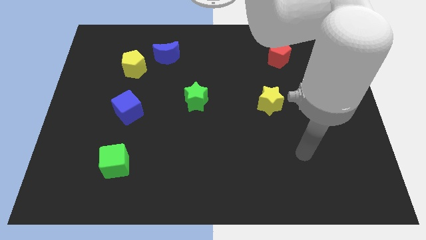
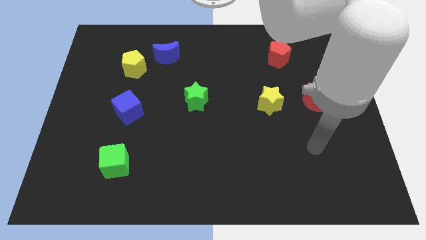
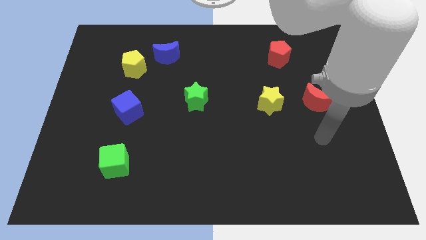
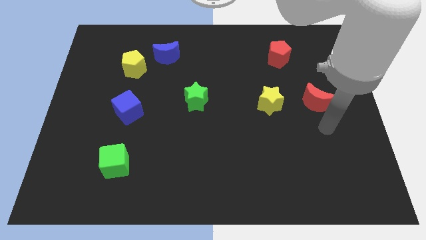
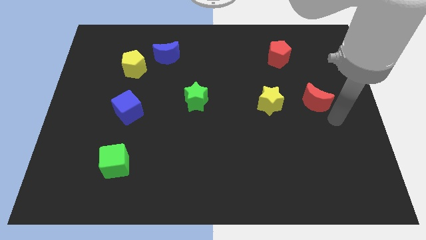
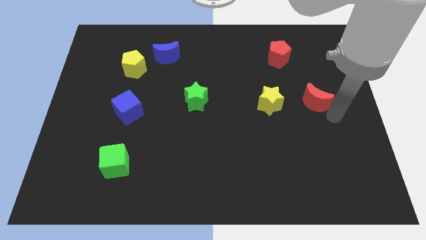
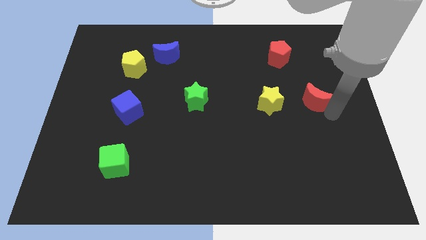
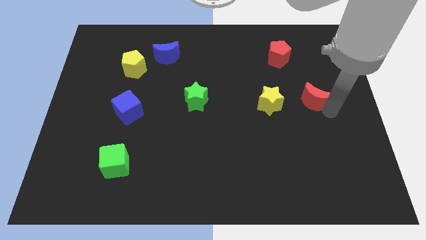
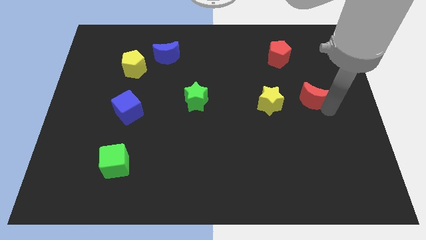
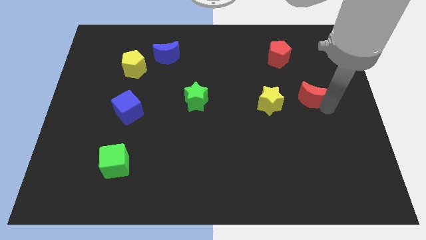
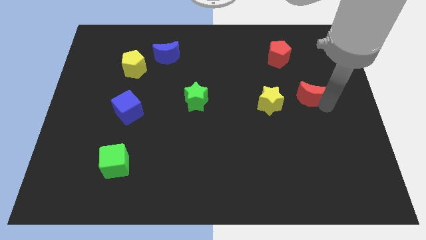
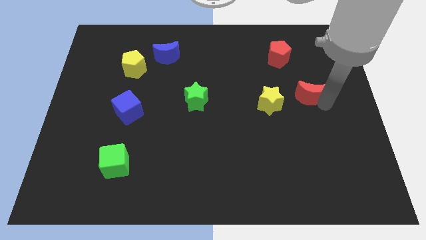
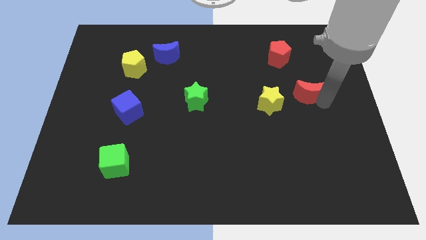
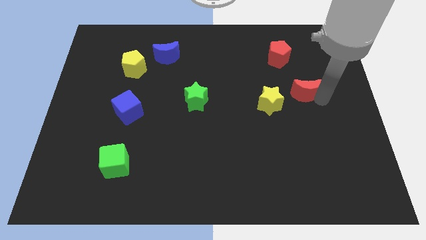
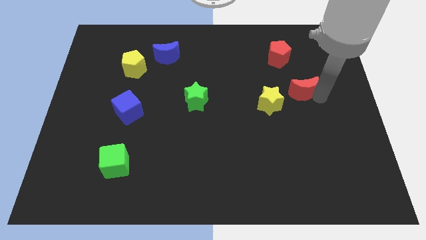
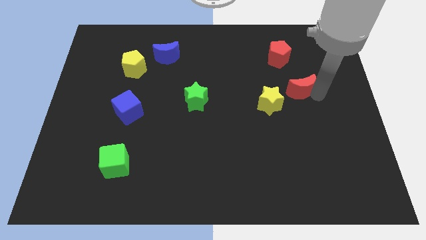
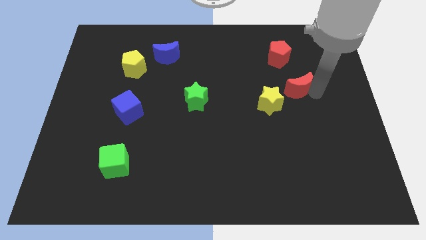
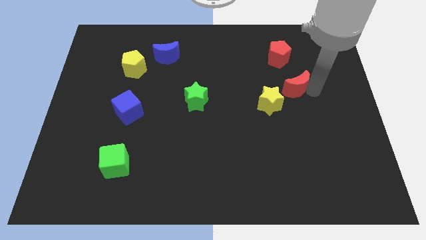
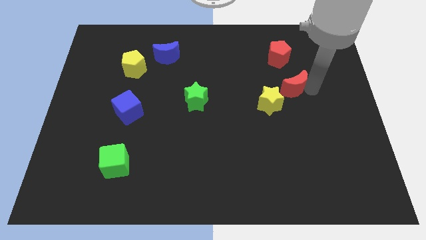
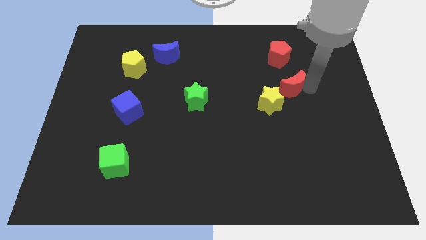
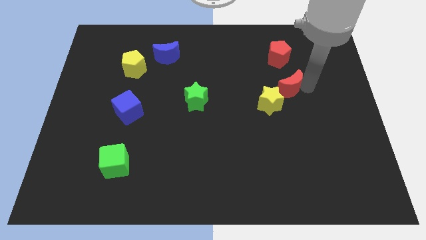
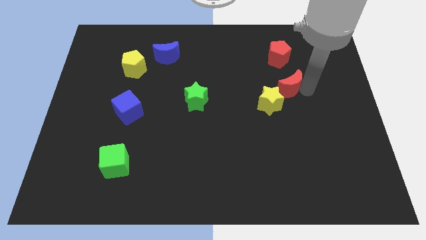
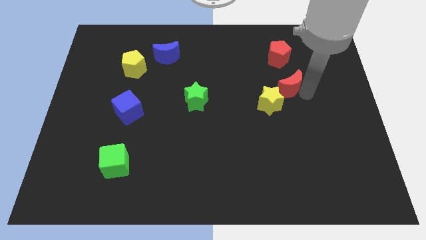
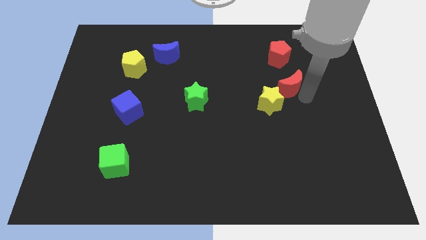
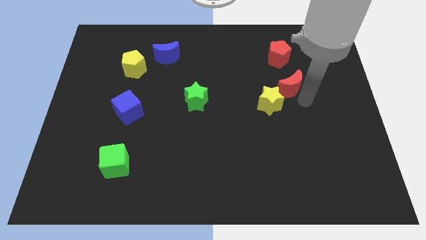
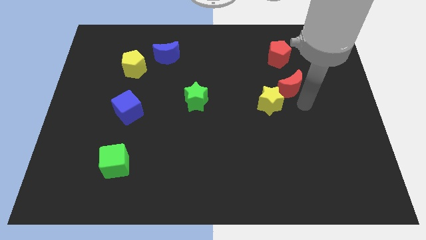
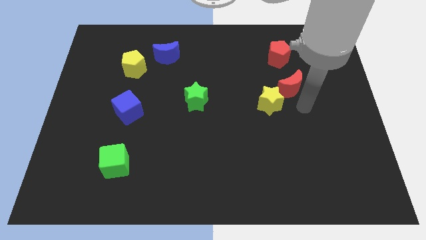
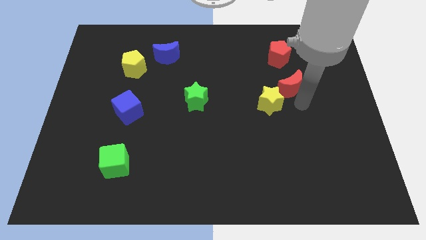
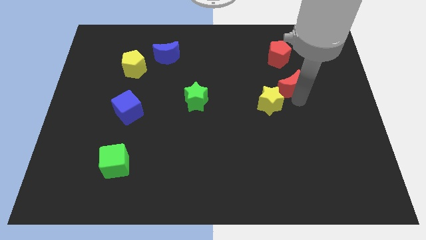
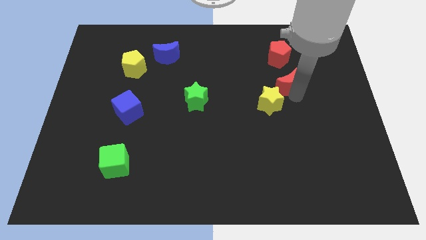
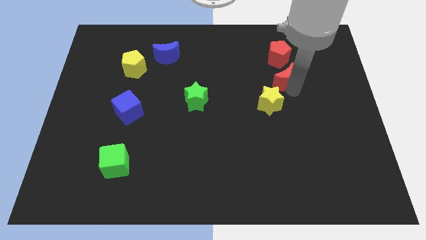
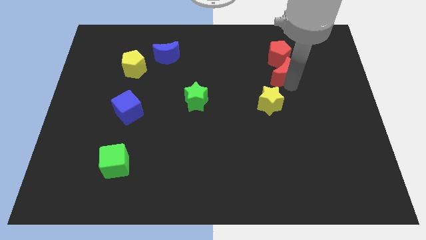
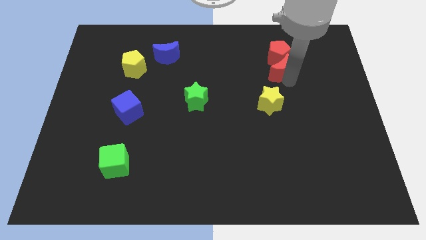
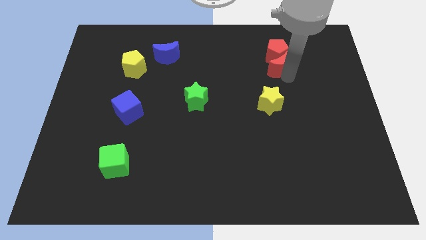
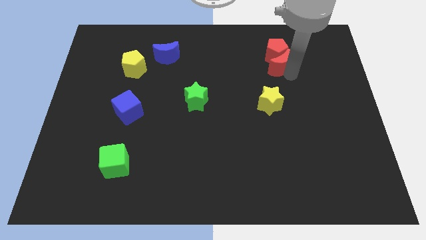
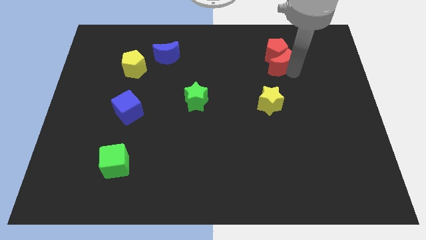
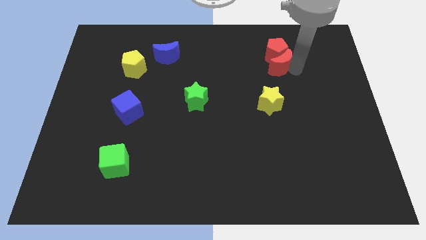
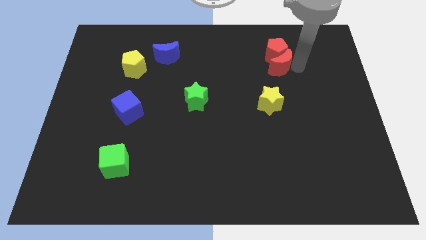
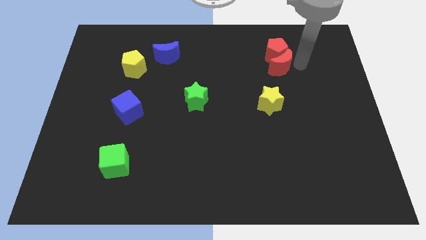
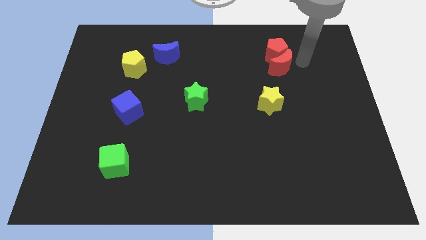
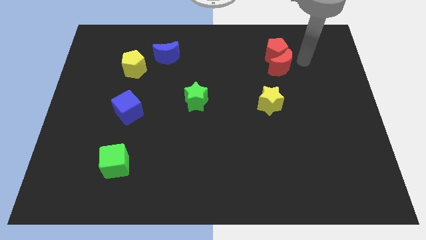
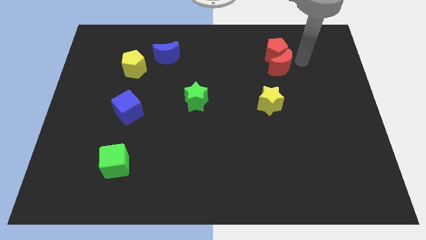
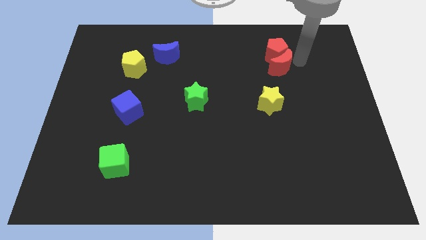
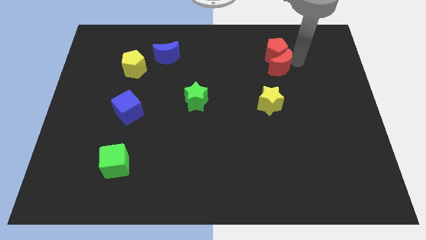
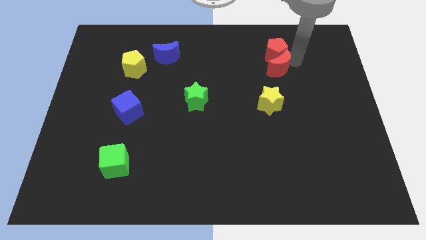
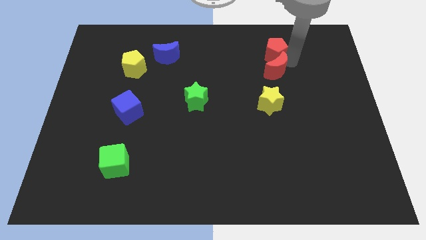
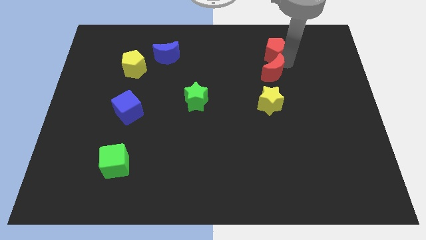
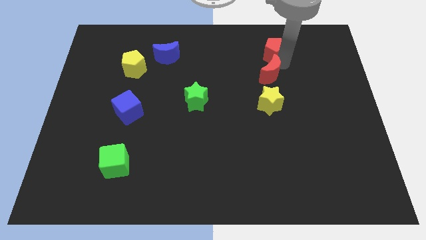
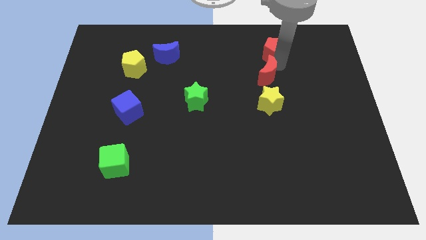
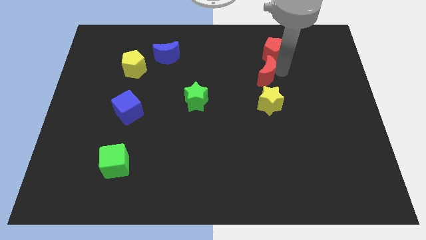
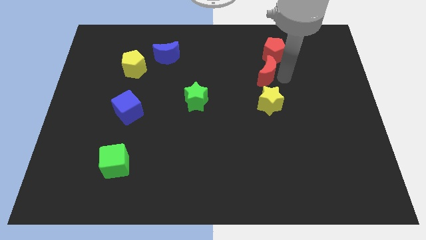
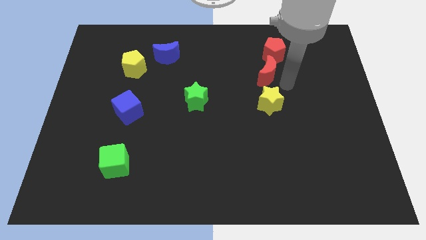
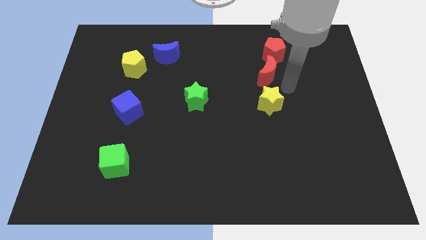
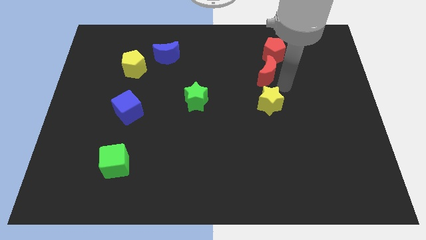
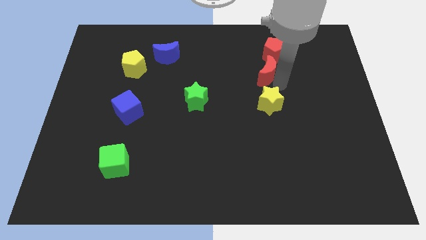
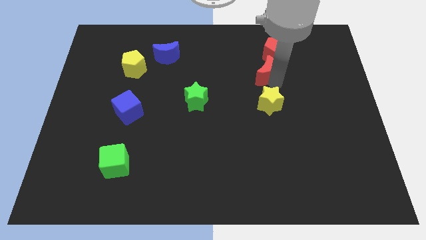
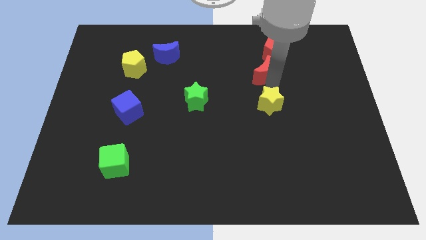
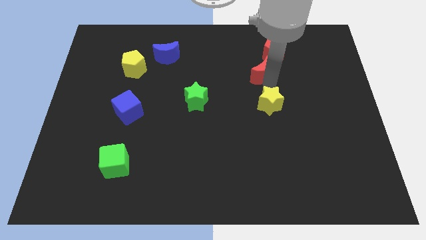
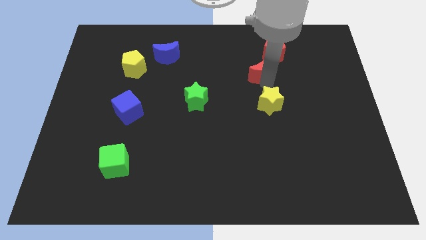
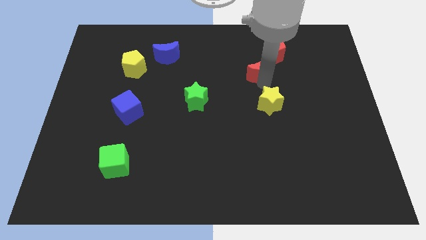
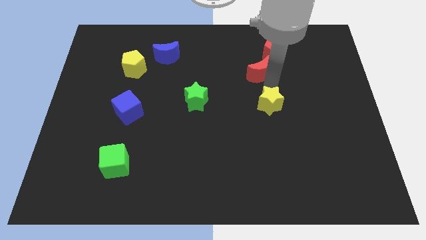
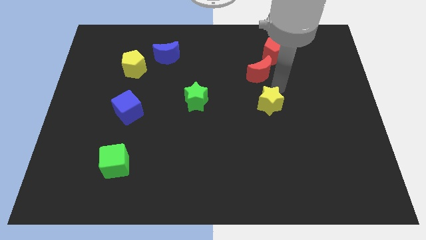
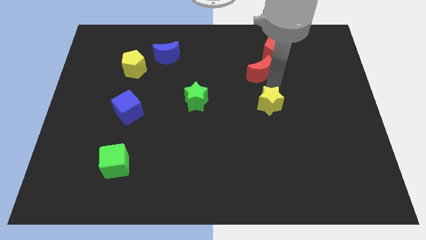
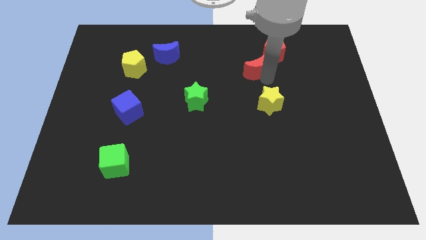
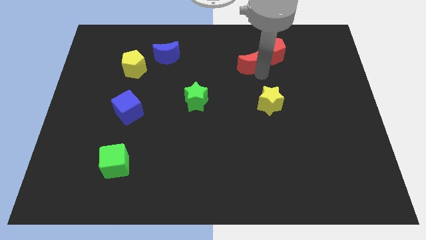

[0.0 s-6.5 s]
push the red moon to the left of the red pentagon
